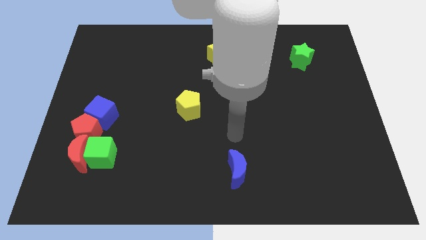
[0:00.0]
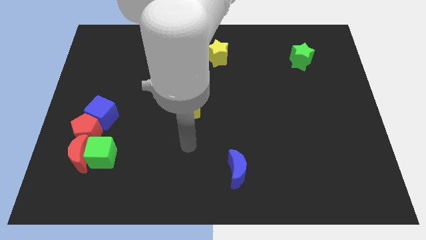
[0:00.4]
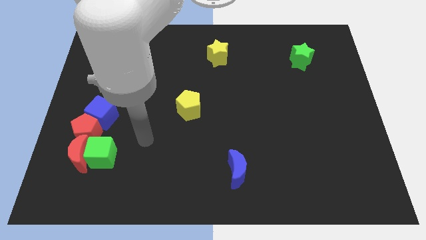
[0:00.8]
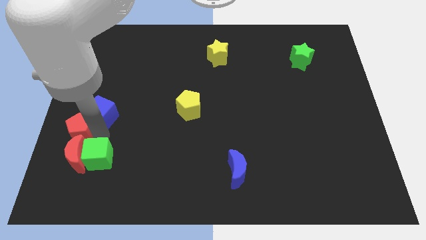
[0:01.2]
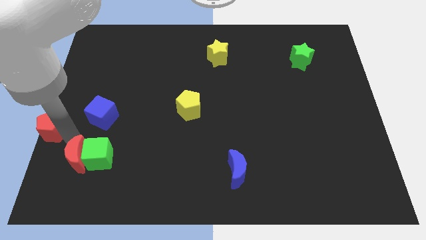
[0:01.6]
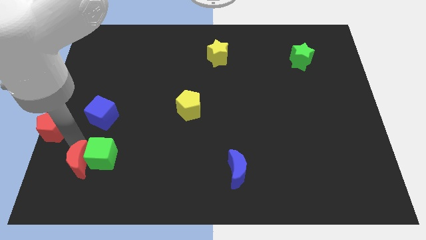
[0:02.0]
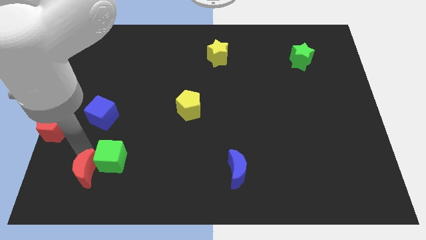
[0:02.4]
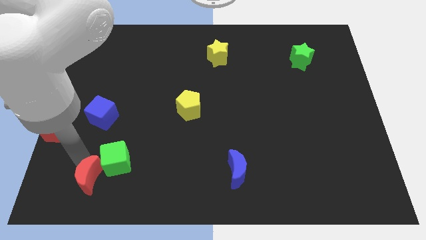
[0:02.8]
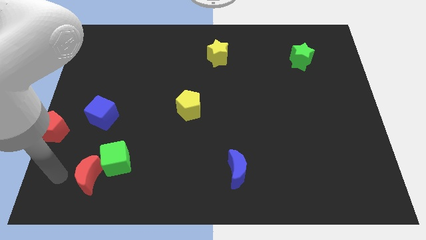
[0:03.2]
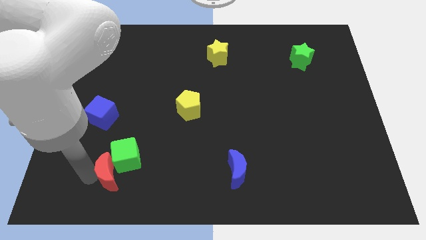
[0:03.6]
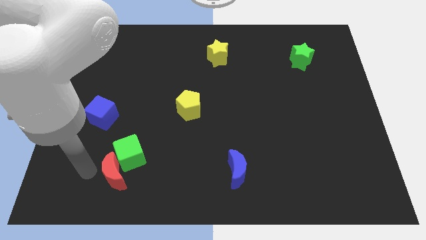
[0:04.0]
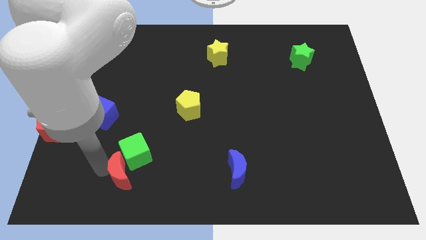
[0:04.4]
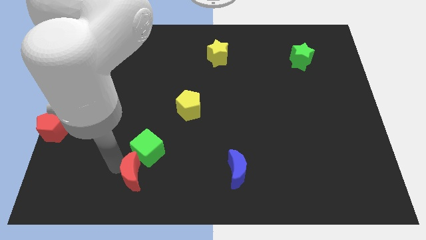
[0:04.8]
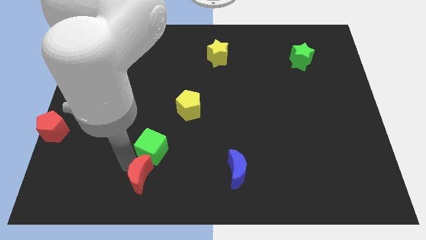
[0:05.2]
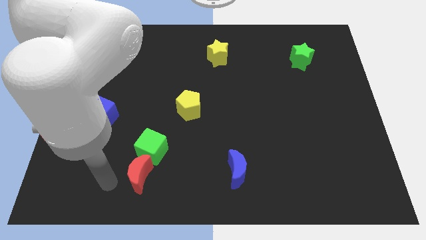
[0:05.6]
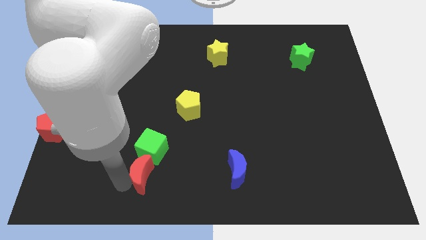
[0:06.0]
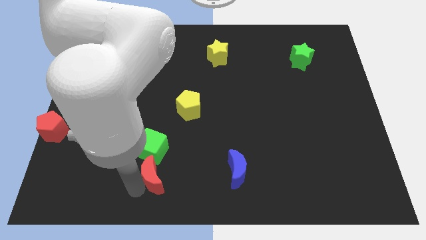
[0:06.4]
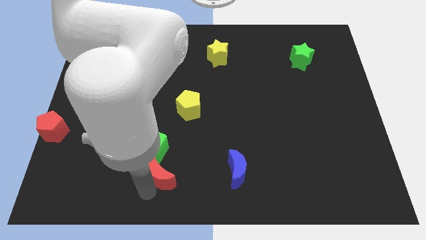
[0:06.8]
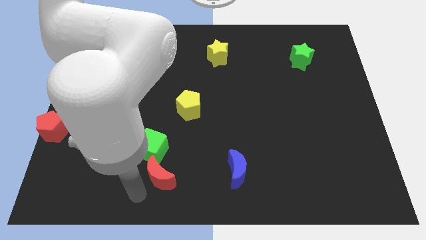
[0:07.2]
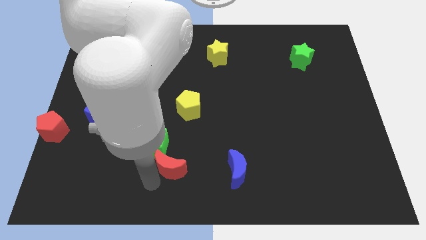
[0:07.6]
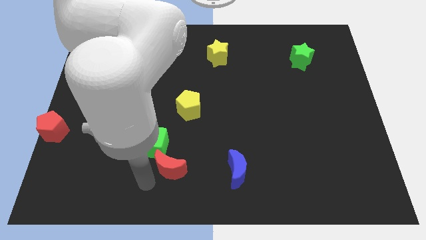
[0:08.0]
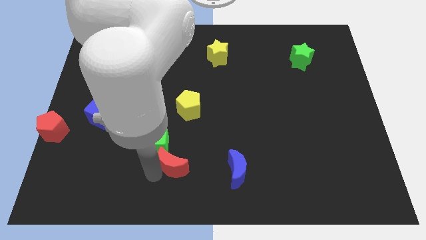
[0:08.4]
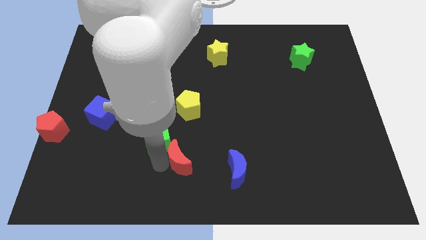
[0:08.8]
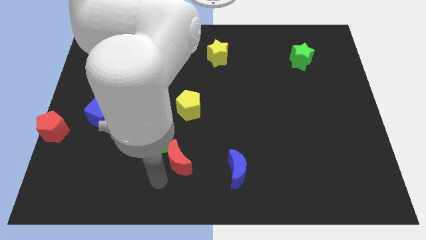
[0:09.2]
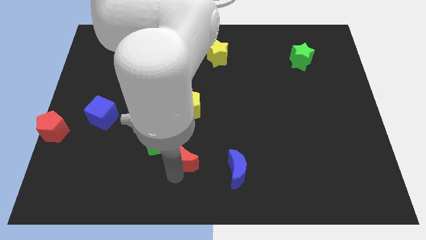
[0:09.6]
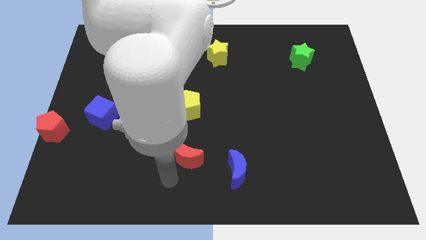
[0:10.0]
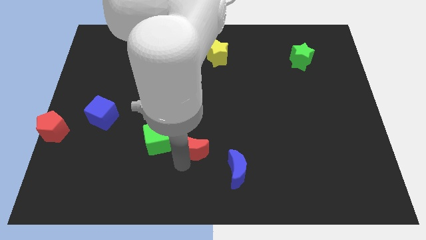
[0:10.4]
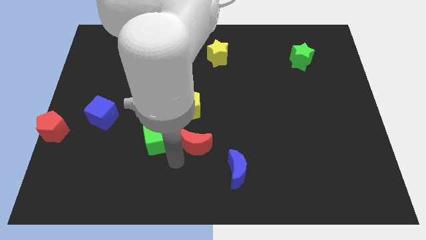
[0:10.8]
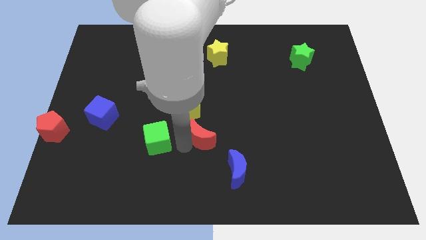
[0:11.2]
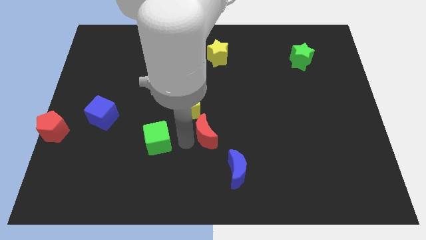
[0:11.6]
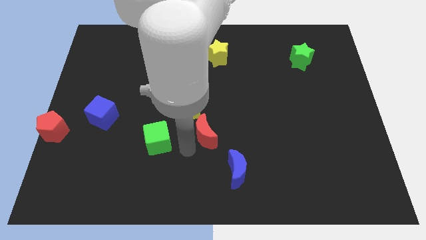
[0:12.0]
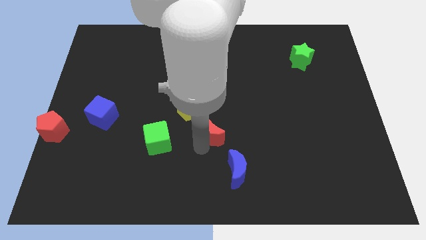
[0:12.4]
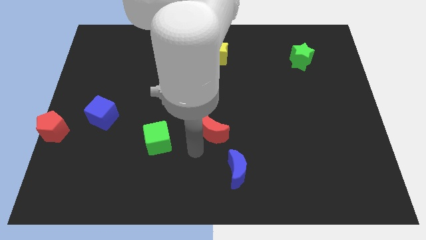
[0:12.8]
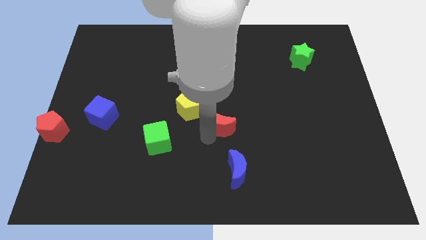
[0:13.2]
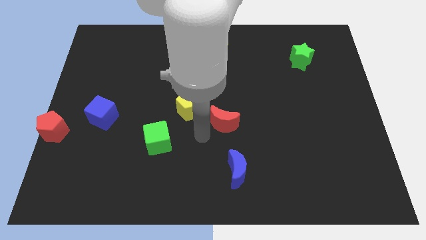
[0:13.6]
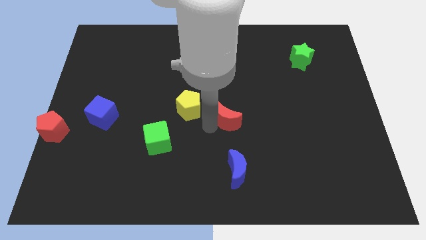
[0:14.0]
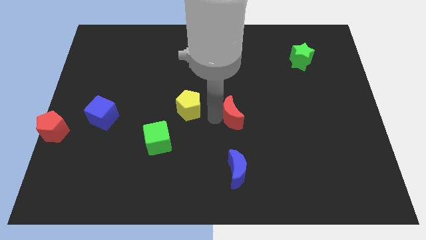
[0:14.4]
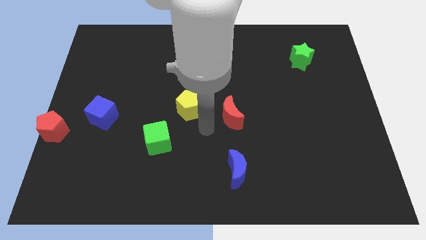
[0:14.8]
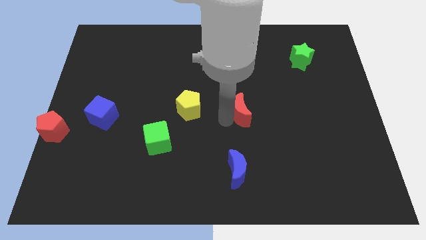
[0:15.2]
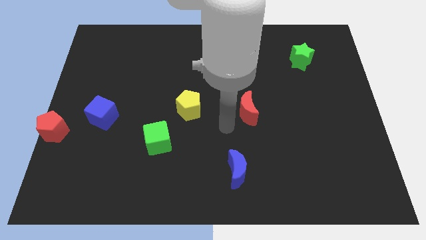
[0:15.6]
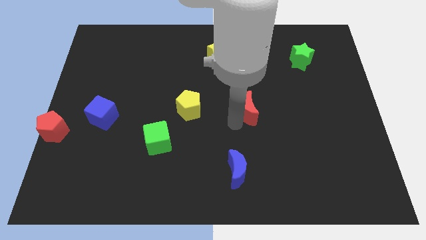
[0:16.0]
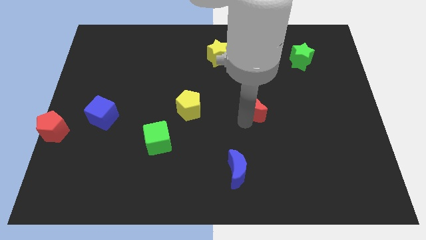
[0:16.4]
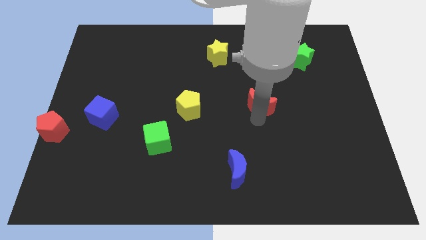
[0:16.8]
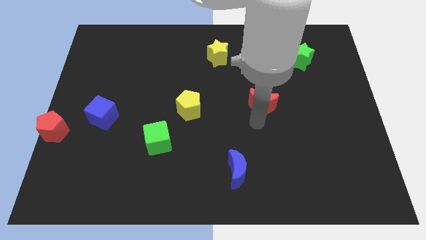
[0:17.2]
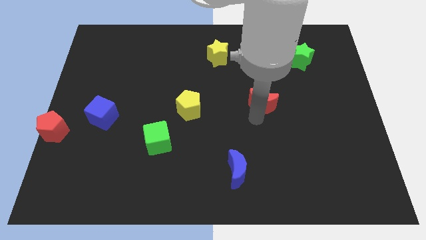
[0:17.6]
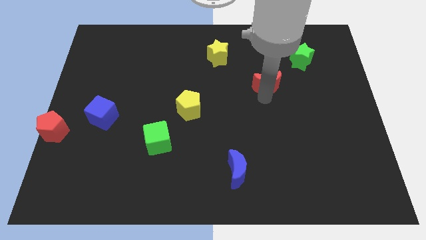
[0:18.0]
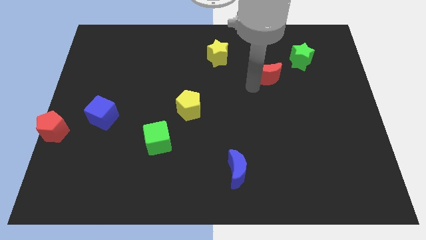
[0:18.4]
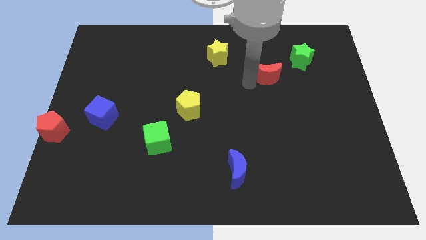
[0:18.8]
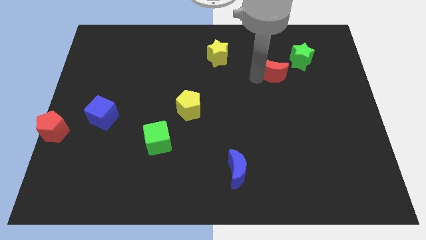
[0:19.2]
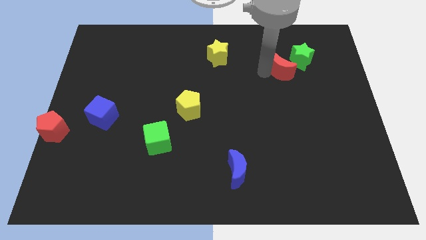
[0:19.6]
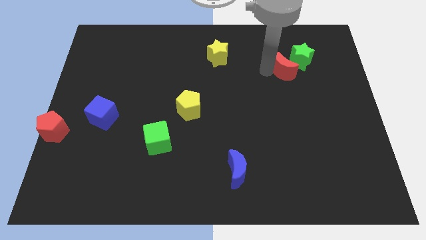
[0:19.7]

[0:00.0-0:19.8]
slide the red moon to the green star

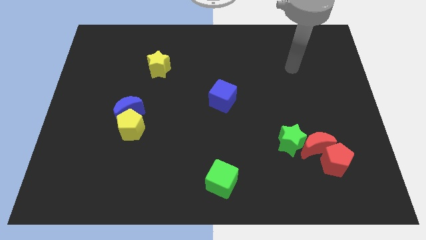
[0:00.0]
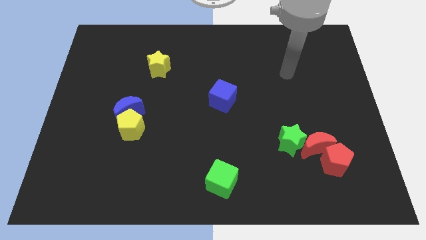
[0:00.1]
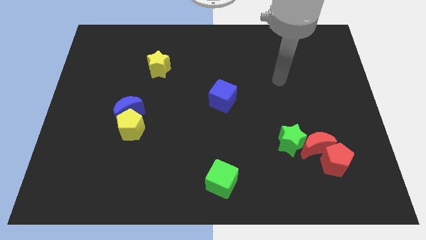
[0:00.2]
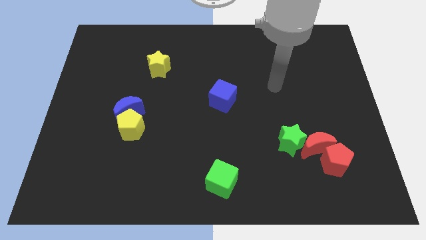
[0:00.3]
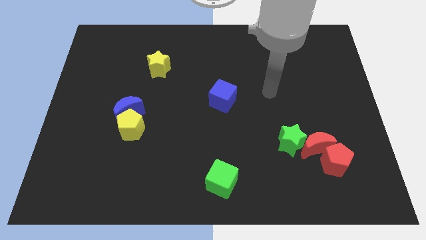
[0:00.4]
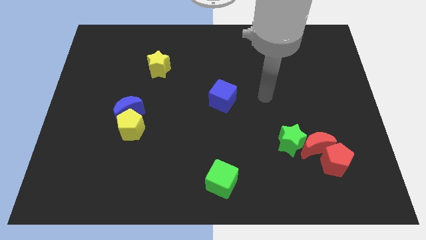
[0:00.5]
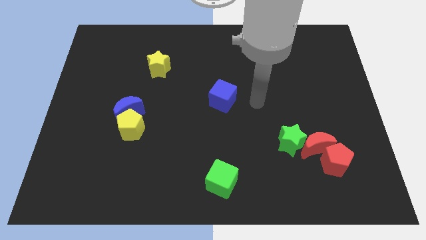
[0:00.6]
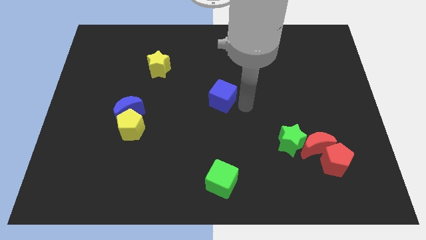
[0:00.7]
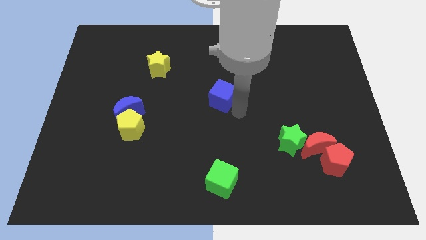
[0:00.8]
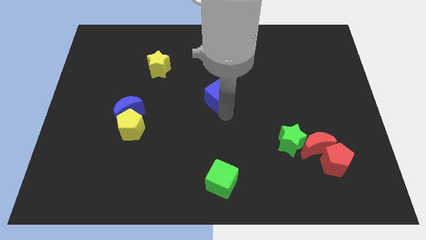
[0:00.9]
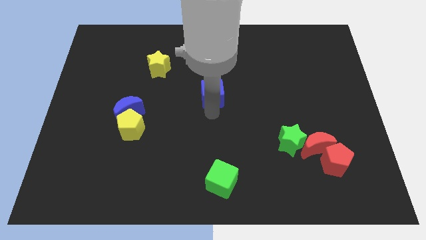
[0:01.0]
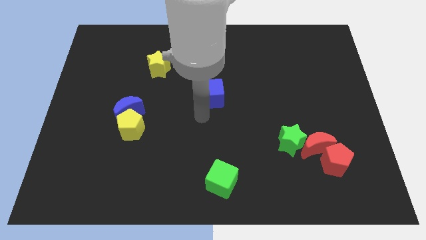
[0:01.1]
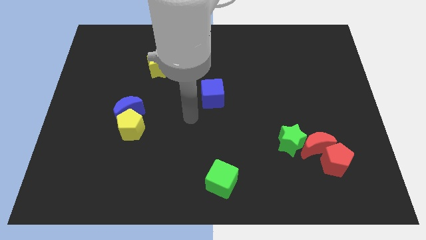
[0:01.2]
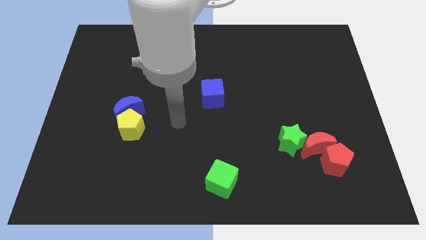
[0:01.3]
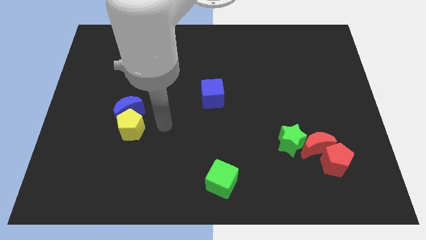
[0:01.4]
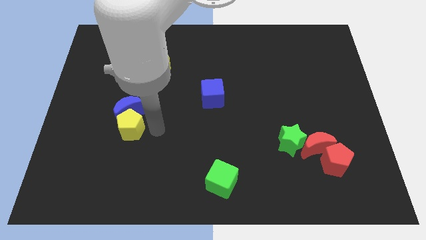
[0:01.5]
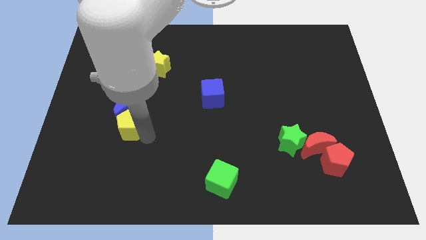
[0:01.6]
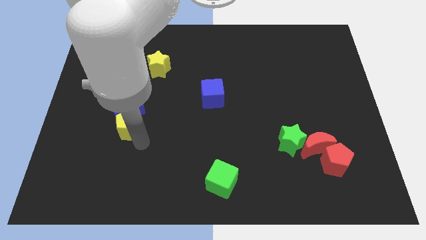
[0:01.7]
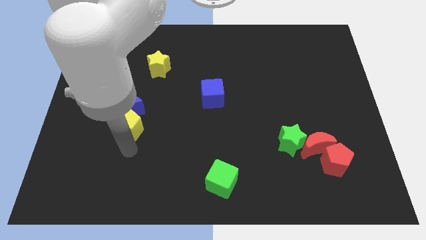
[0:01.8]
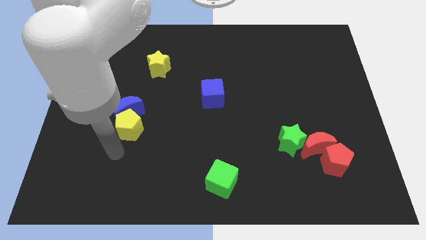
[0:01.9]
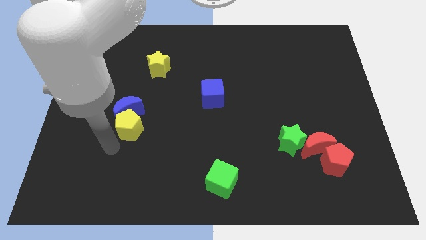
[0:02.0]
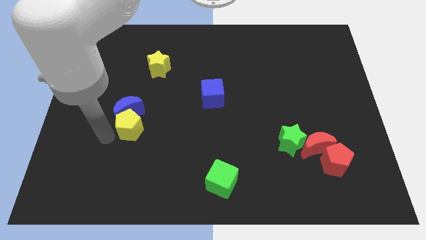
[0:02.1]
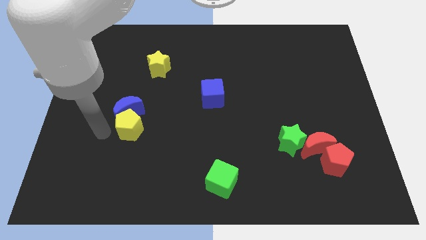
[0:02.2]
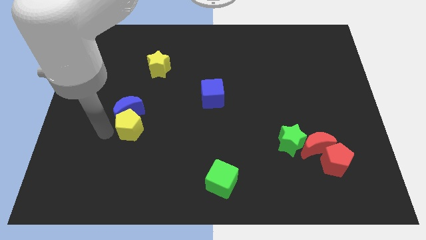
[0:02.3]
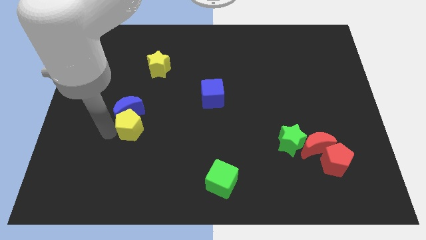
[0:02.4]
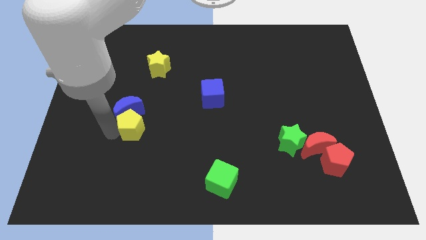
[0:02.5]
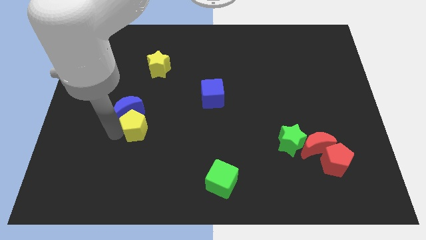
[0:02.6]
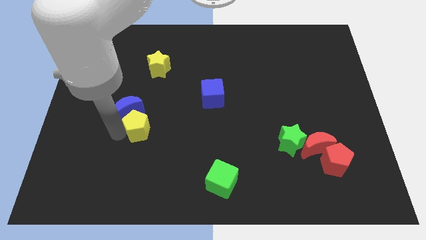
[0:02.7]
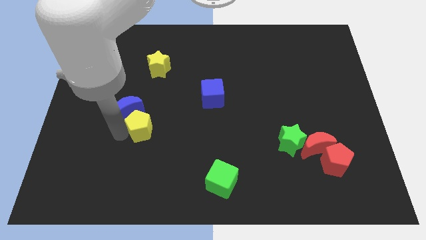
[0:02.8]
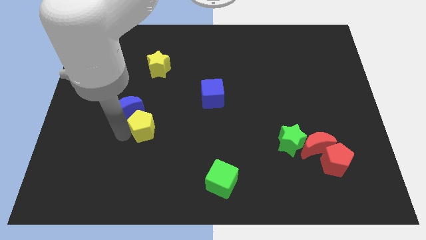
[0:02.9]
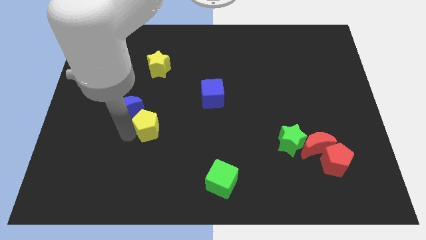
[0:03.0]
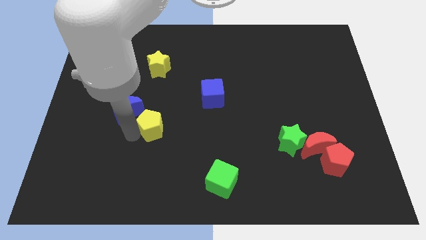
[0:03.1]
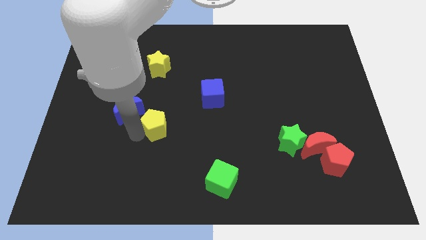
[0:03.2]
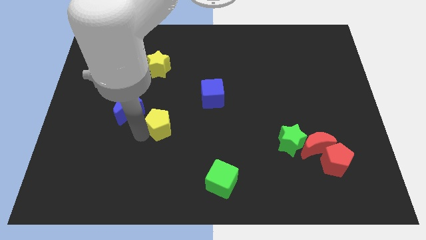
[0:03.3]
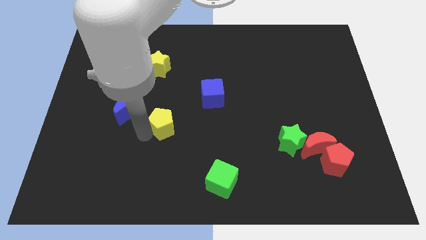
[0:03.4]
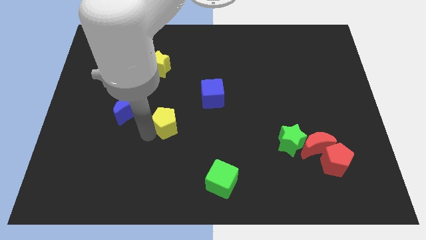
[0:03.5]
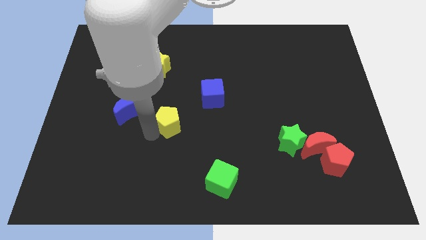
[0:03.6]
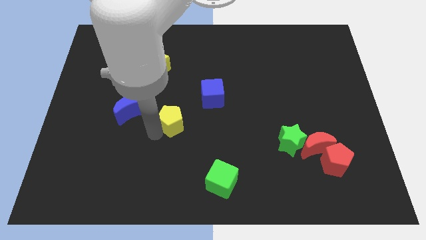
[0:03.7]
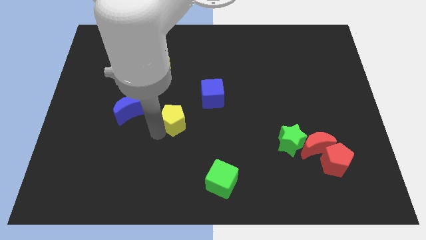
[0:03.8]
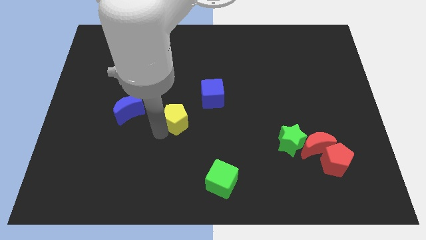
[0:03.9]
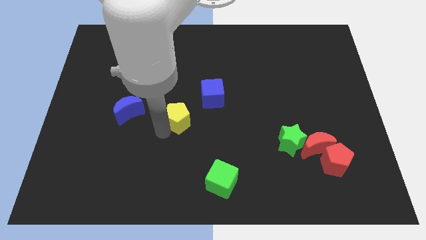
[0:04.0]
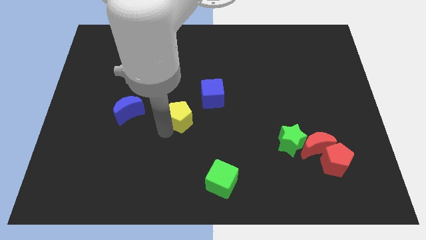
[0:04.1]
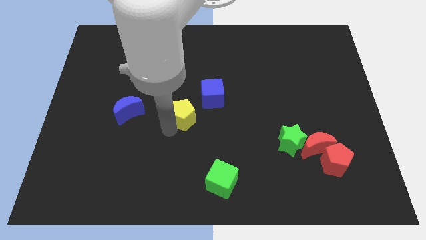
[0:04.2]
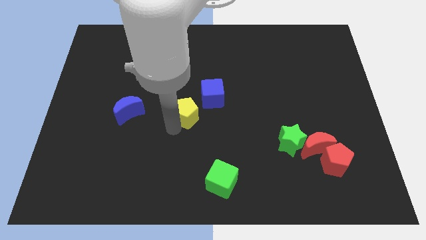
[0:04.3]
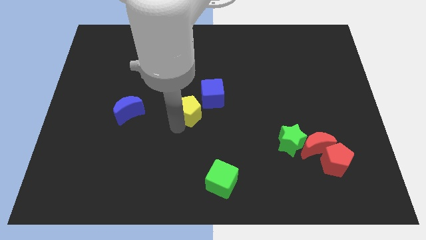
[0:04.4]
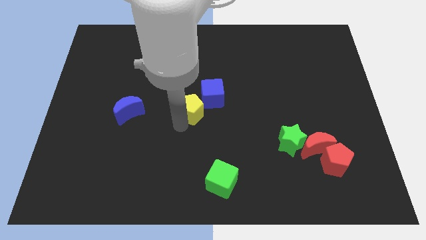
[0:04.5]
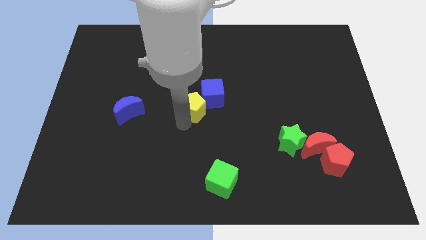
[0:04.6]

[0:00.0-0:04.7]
slide the yellow pentagon close to the blue cube
